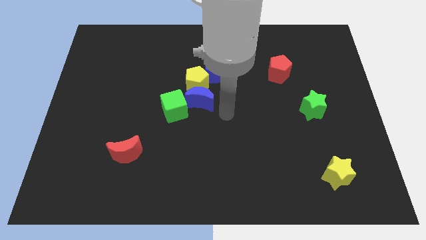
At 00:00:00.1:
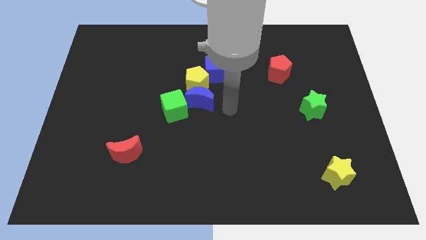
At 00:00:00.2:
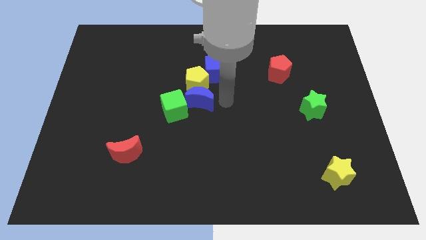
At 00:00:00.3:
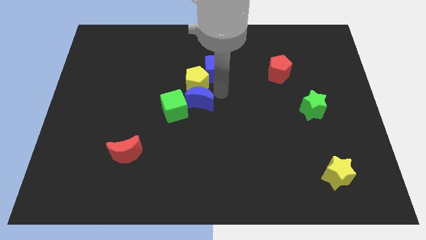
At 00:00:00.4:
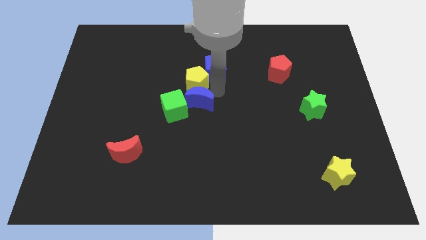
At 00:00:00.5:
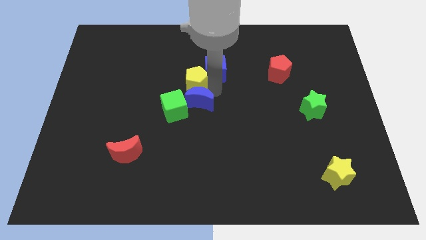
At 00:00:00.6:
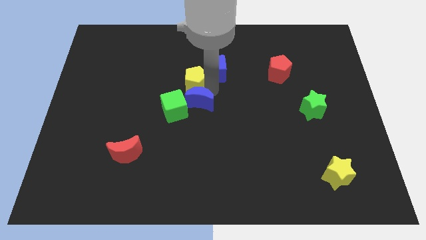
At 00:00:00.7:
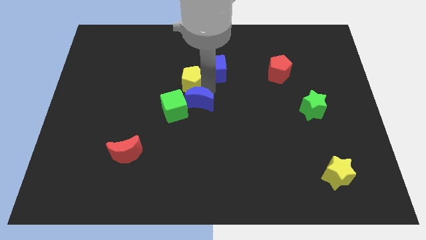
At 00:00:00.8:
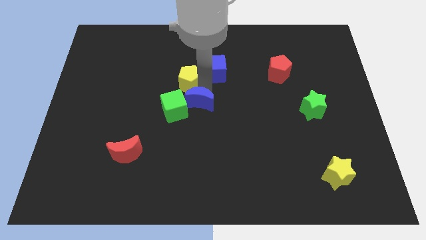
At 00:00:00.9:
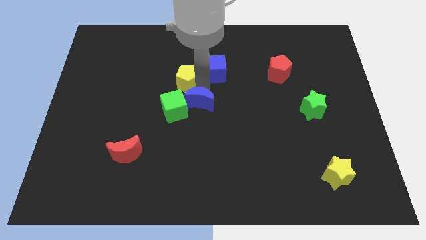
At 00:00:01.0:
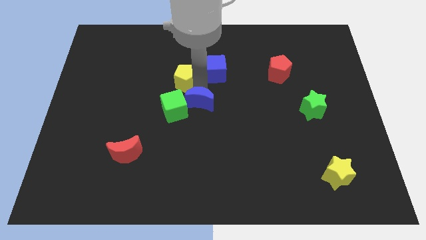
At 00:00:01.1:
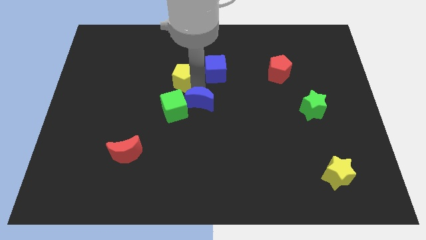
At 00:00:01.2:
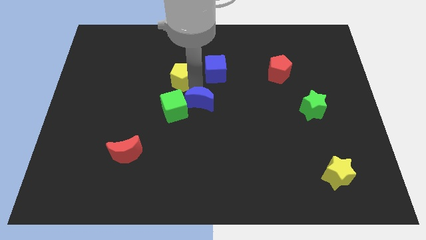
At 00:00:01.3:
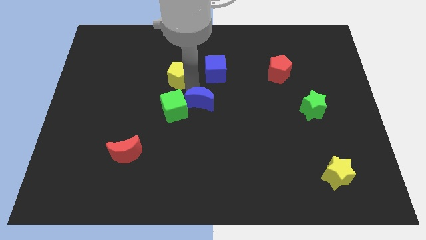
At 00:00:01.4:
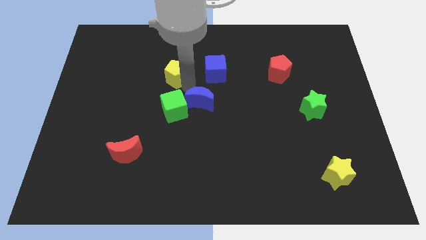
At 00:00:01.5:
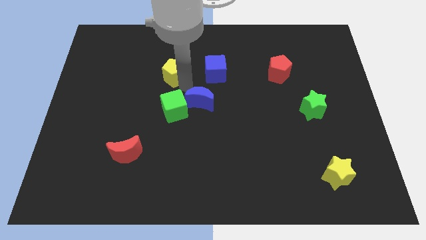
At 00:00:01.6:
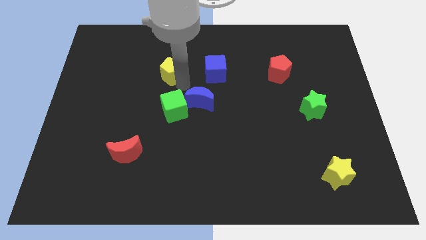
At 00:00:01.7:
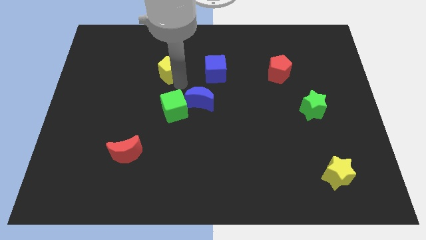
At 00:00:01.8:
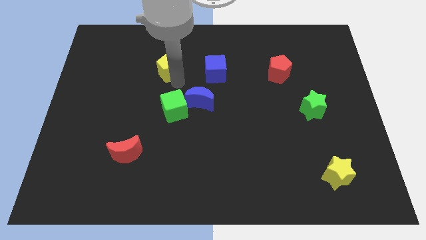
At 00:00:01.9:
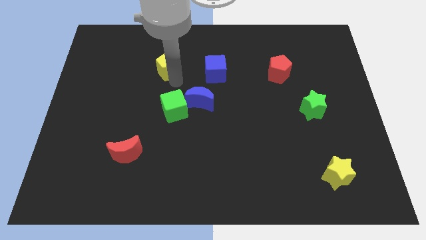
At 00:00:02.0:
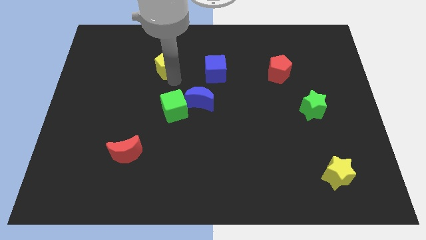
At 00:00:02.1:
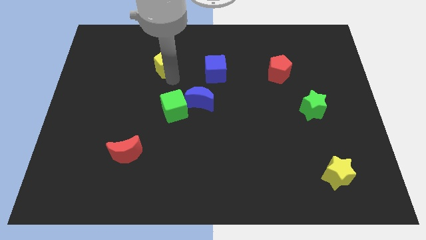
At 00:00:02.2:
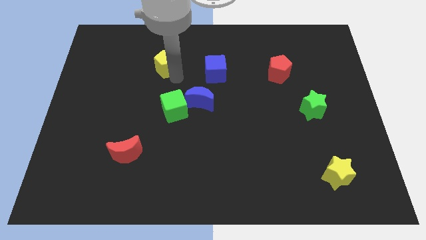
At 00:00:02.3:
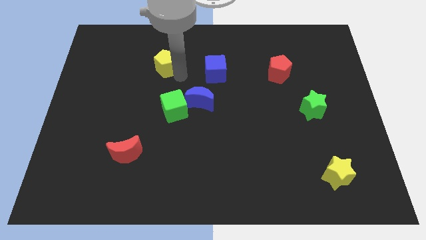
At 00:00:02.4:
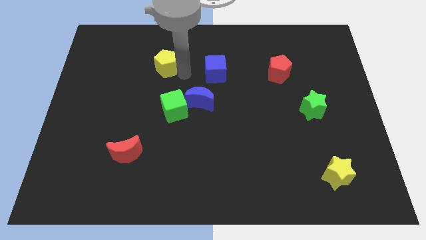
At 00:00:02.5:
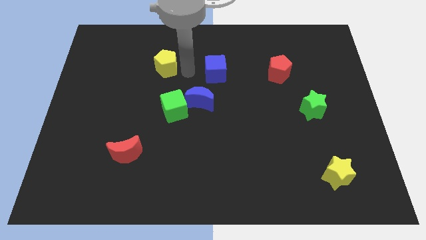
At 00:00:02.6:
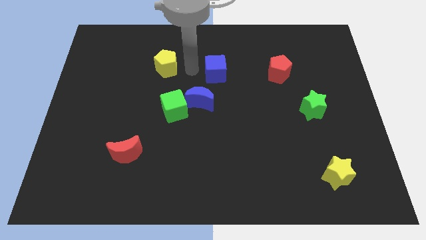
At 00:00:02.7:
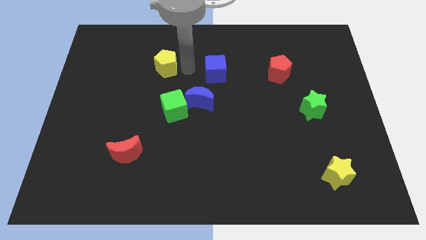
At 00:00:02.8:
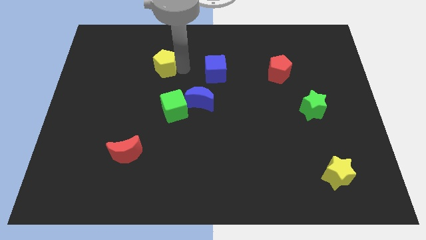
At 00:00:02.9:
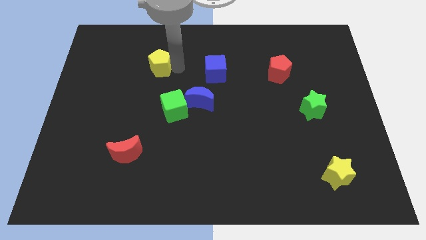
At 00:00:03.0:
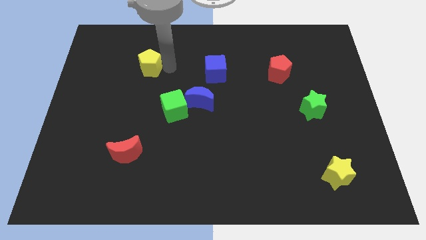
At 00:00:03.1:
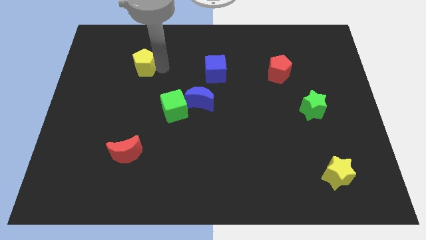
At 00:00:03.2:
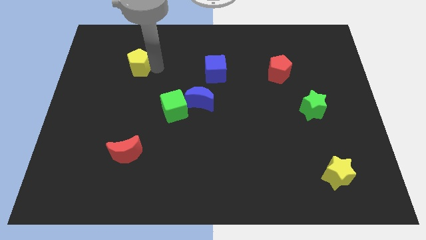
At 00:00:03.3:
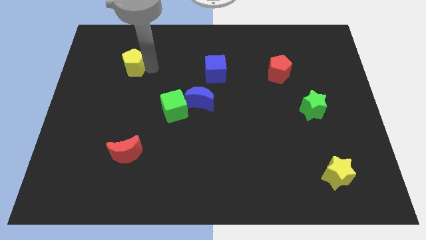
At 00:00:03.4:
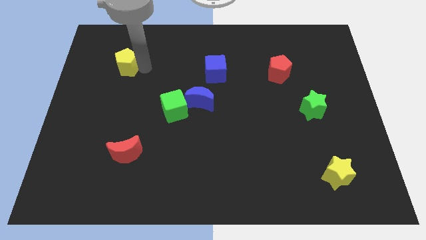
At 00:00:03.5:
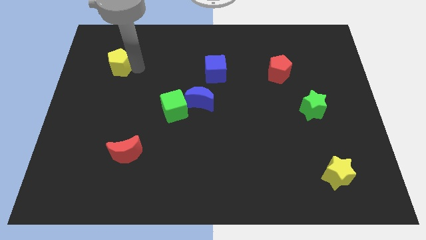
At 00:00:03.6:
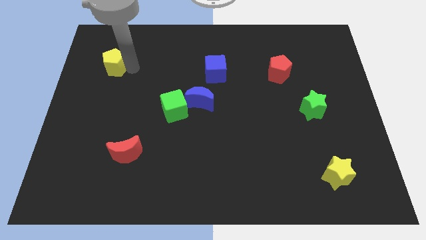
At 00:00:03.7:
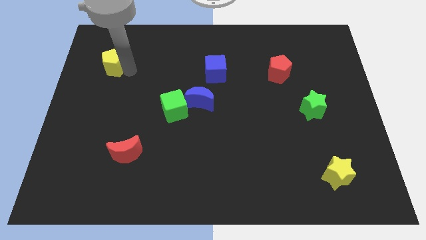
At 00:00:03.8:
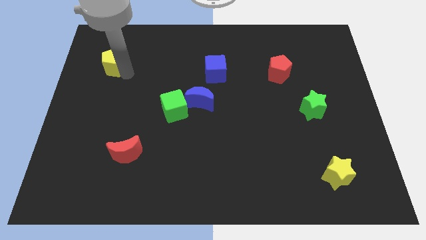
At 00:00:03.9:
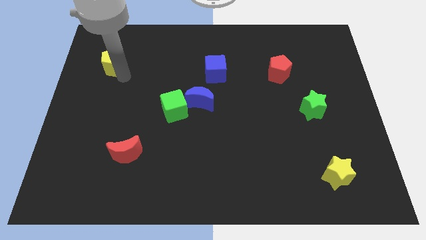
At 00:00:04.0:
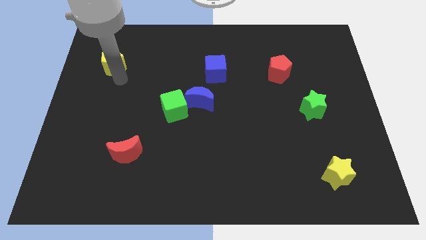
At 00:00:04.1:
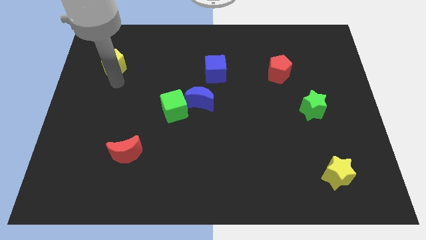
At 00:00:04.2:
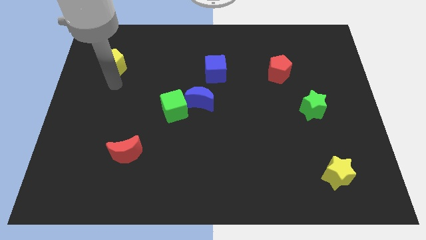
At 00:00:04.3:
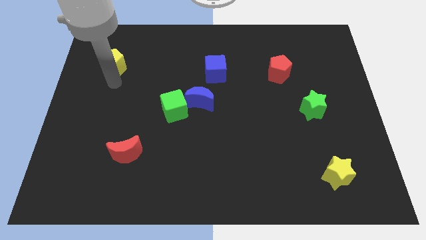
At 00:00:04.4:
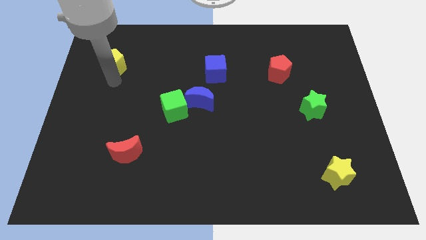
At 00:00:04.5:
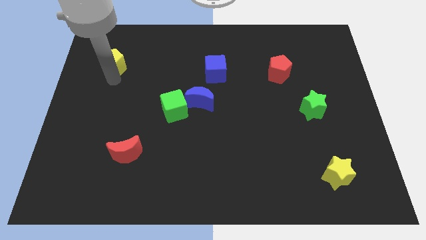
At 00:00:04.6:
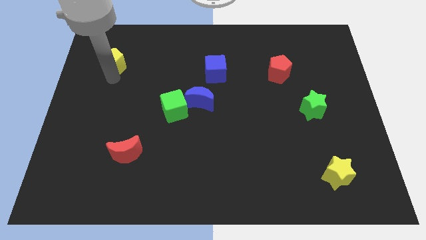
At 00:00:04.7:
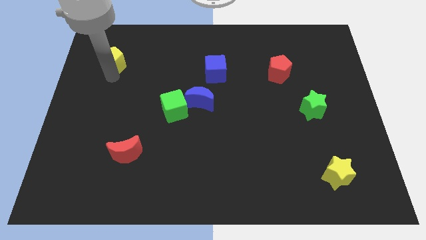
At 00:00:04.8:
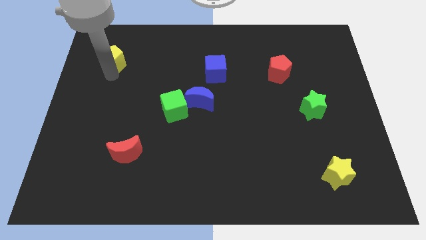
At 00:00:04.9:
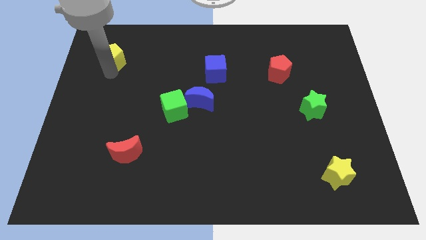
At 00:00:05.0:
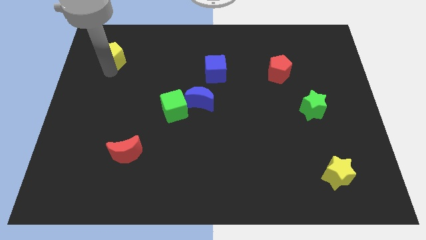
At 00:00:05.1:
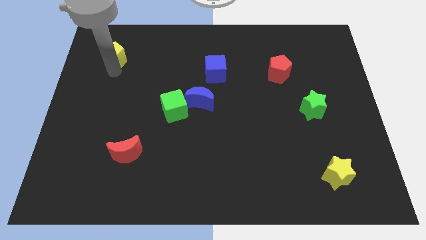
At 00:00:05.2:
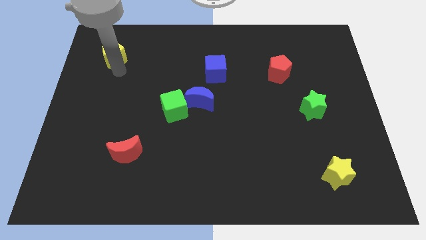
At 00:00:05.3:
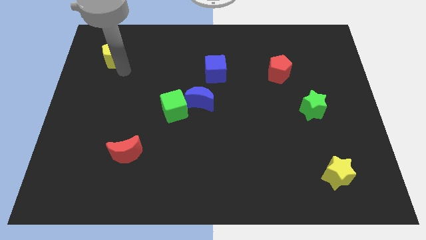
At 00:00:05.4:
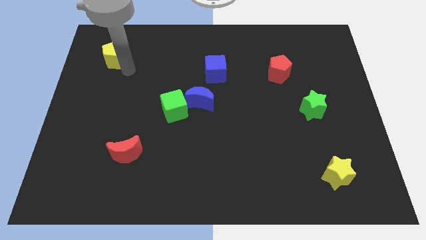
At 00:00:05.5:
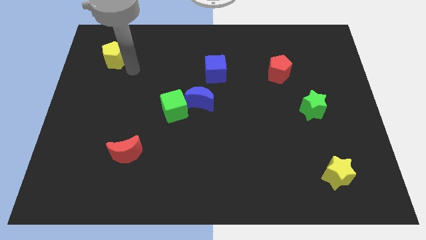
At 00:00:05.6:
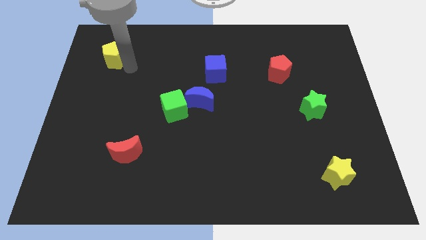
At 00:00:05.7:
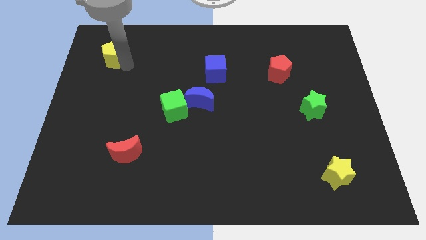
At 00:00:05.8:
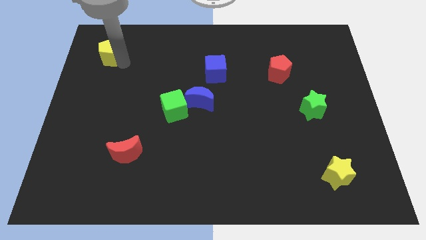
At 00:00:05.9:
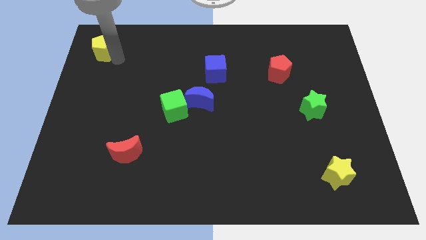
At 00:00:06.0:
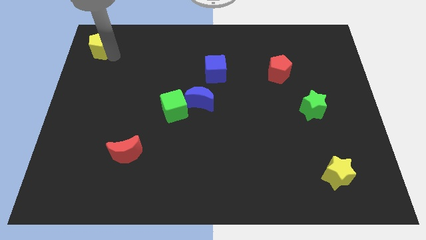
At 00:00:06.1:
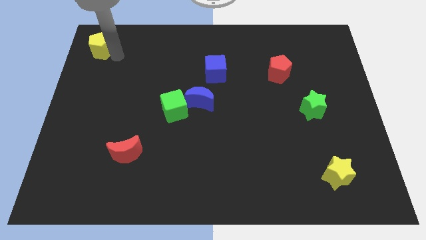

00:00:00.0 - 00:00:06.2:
push the yellow pentagon to the upper left corner
